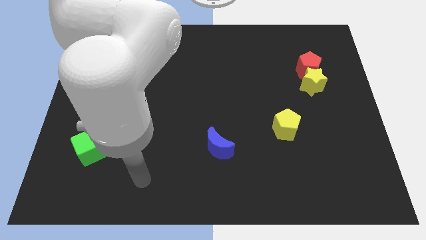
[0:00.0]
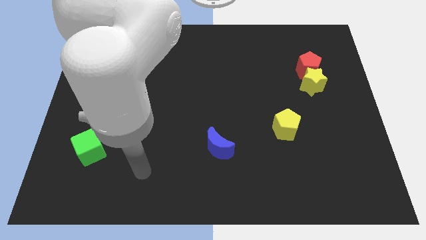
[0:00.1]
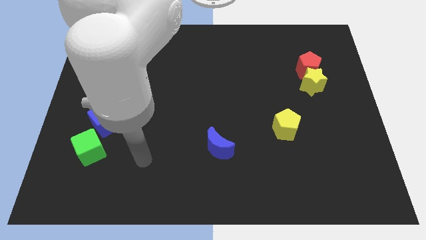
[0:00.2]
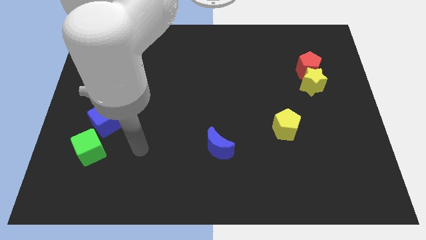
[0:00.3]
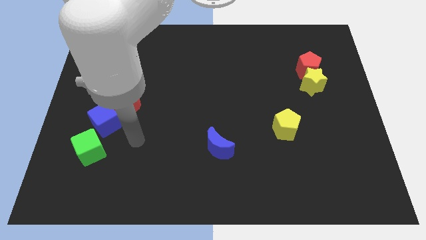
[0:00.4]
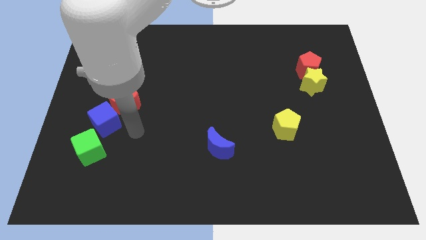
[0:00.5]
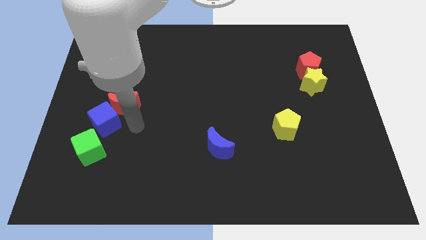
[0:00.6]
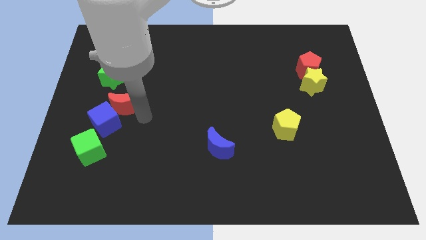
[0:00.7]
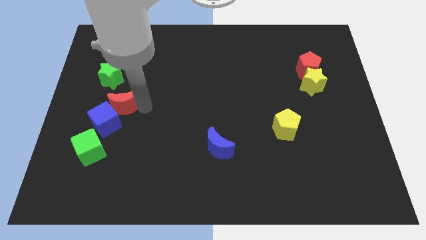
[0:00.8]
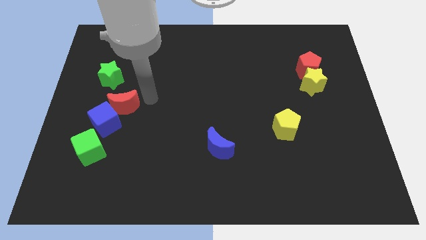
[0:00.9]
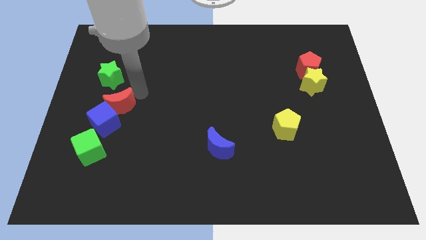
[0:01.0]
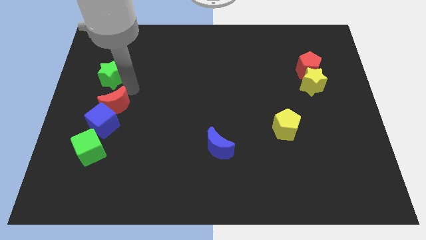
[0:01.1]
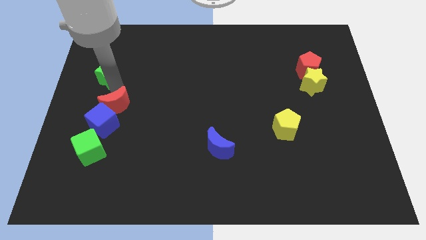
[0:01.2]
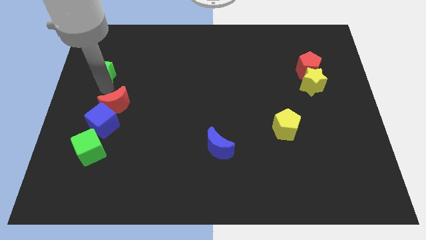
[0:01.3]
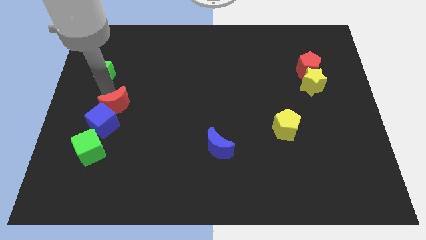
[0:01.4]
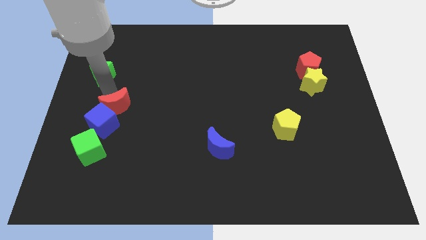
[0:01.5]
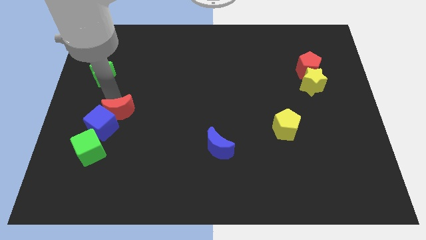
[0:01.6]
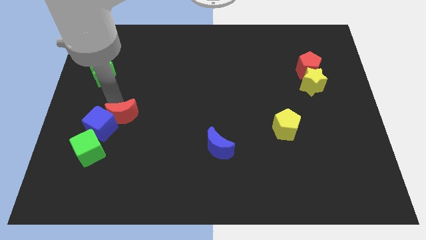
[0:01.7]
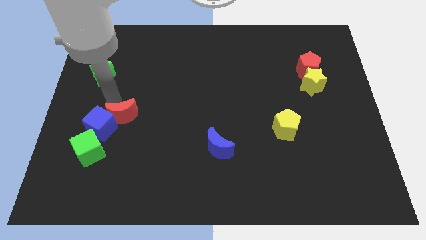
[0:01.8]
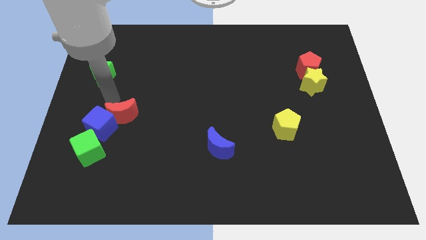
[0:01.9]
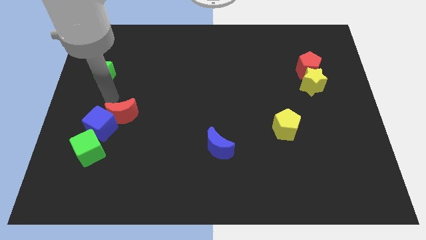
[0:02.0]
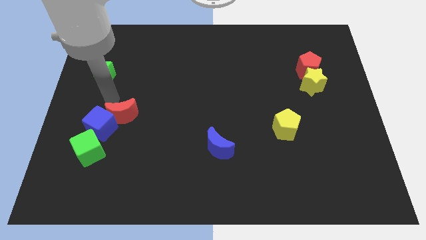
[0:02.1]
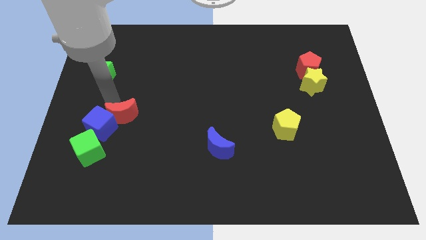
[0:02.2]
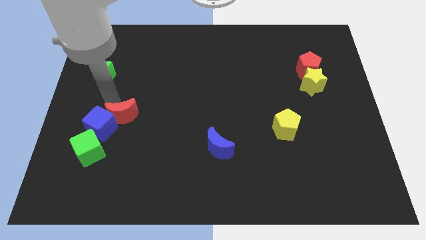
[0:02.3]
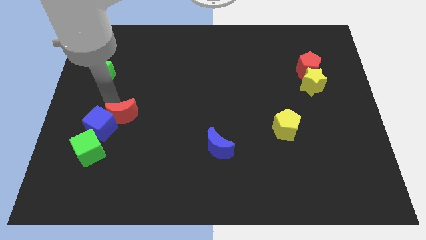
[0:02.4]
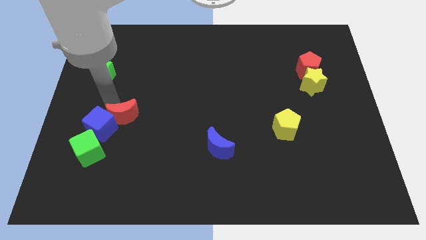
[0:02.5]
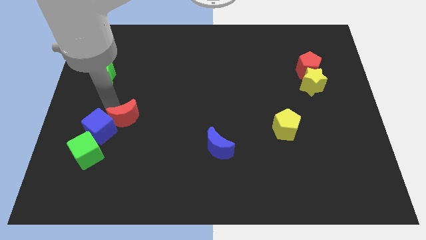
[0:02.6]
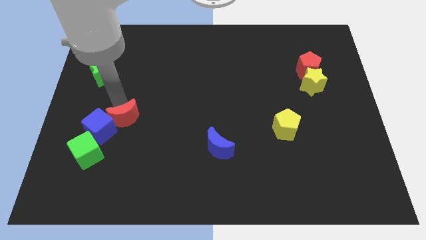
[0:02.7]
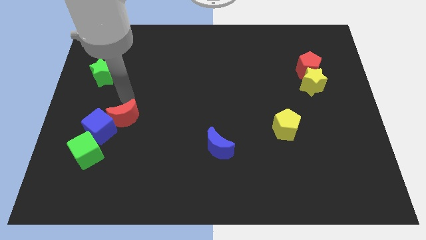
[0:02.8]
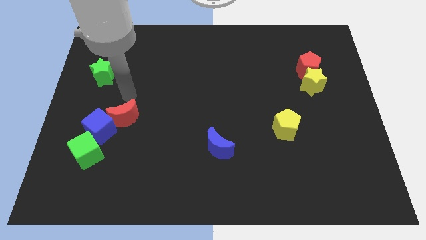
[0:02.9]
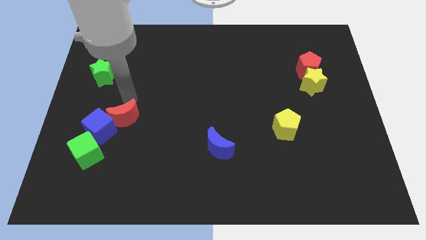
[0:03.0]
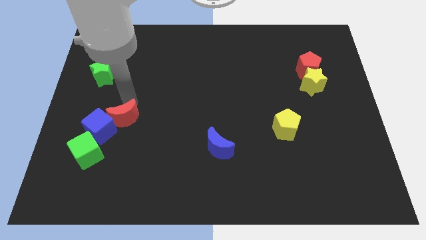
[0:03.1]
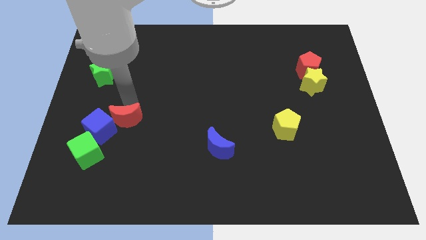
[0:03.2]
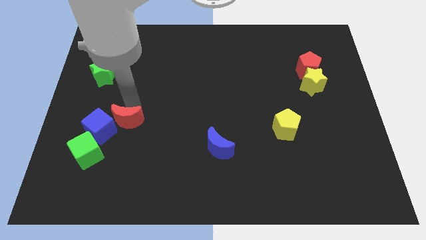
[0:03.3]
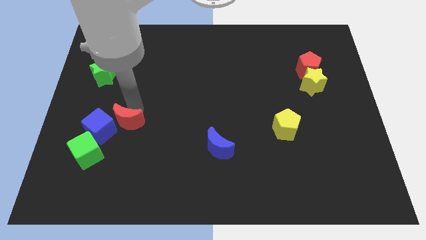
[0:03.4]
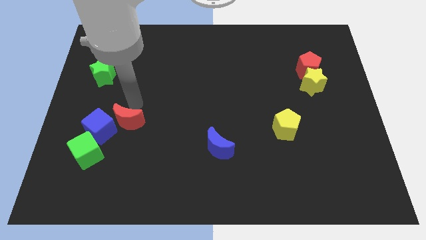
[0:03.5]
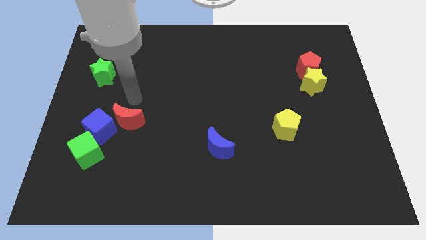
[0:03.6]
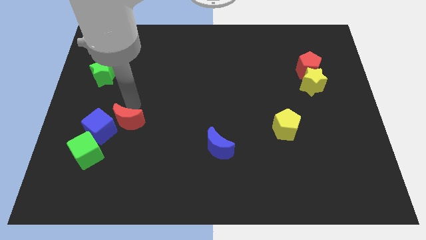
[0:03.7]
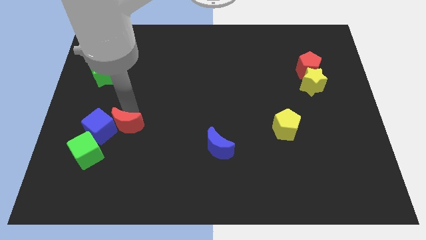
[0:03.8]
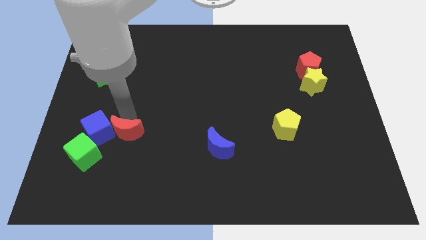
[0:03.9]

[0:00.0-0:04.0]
push the red moon downwards a little

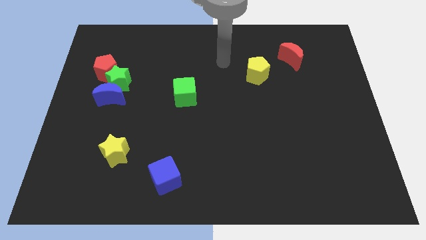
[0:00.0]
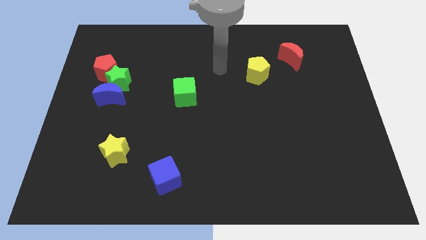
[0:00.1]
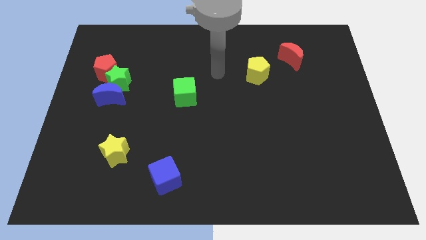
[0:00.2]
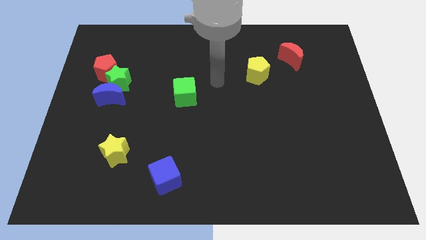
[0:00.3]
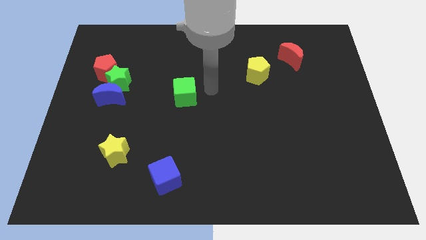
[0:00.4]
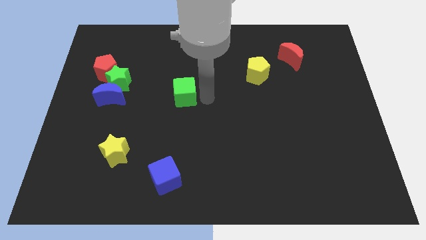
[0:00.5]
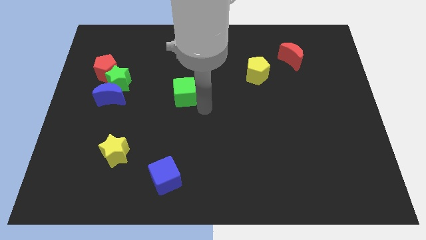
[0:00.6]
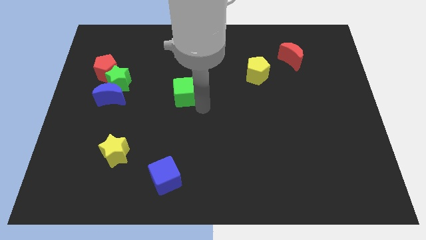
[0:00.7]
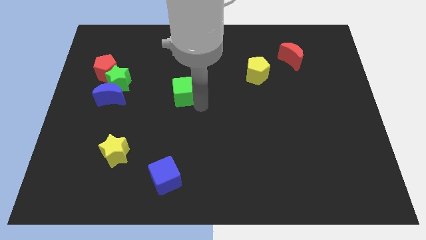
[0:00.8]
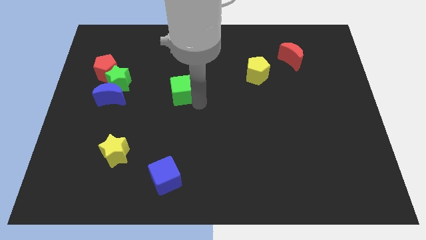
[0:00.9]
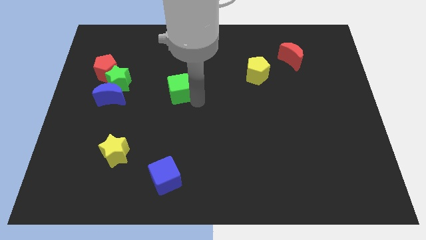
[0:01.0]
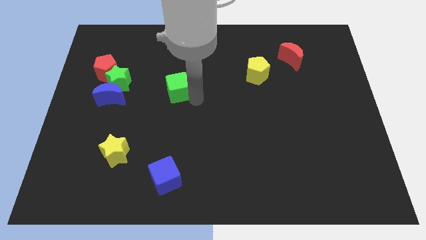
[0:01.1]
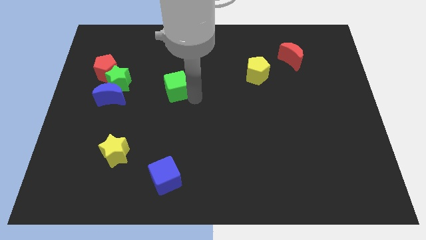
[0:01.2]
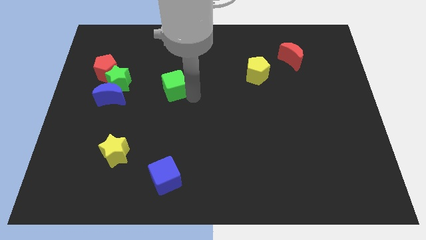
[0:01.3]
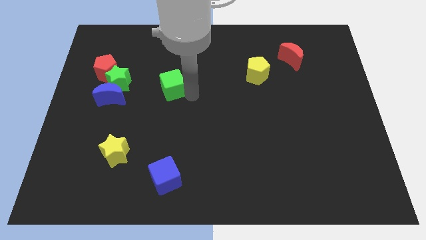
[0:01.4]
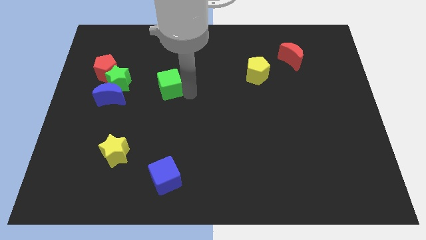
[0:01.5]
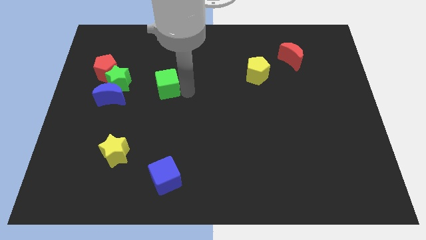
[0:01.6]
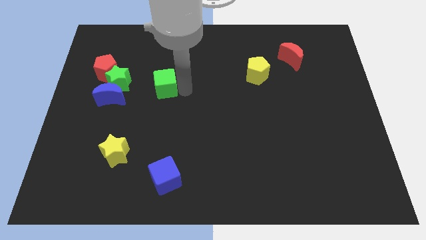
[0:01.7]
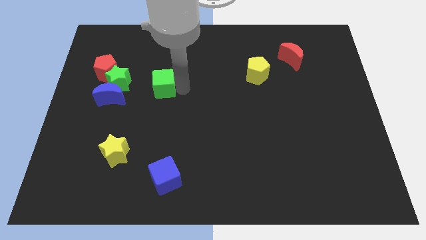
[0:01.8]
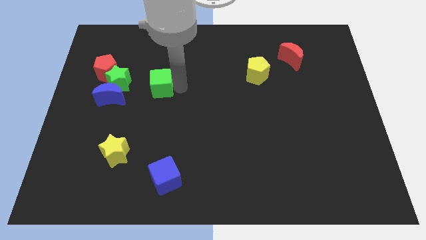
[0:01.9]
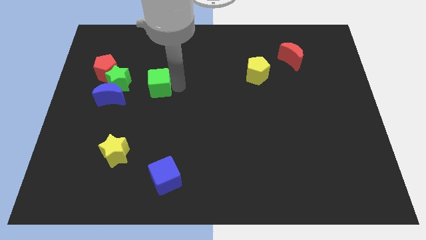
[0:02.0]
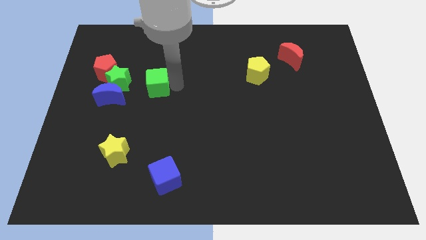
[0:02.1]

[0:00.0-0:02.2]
slide the green cube slightly up and to the left diagonally

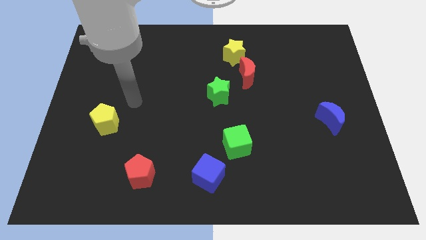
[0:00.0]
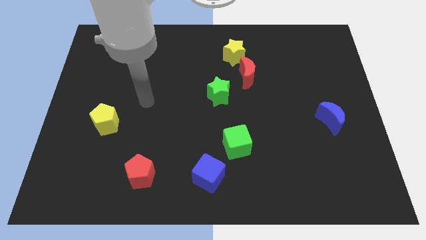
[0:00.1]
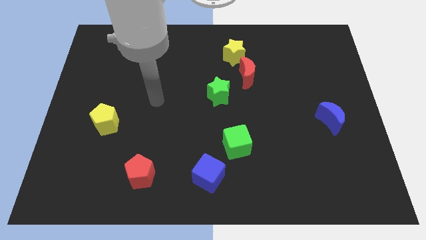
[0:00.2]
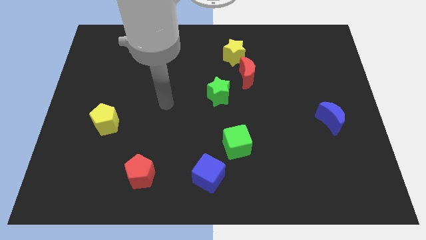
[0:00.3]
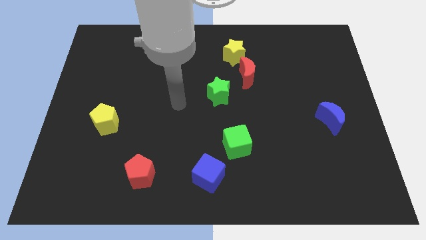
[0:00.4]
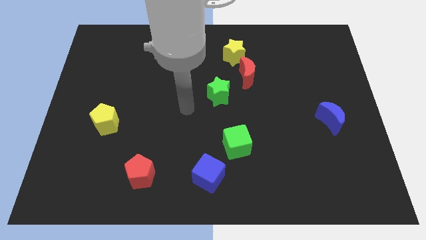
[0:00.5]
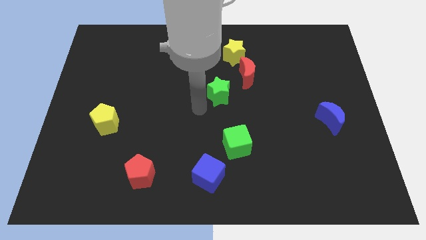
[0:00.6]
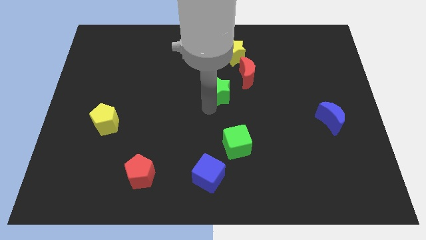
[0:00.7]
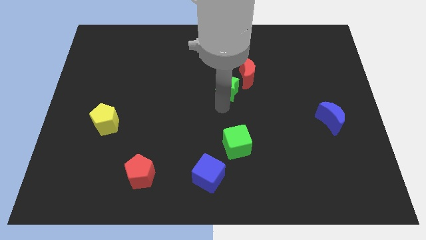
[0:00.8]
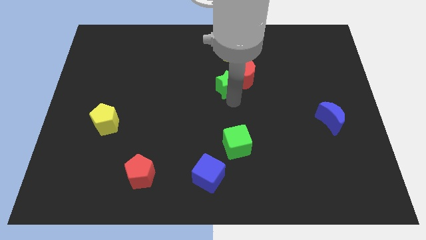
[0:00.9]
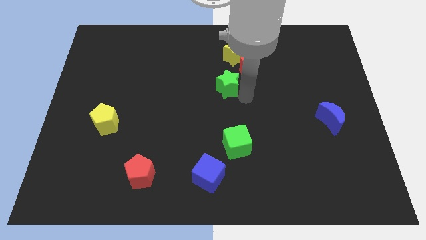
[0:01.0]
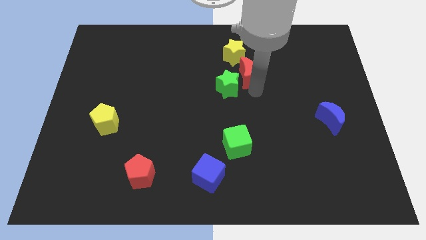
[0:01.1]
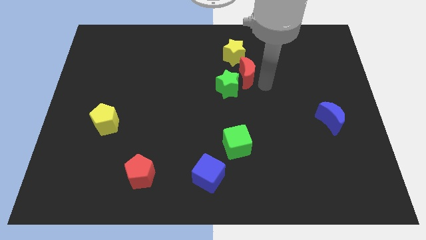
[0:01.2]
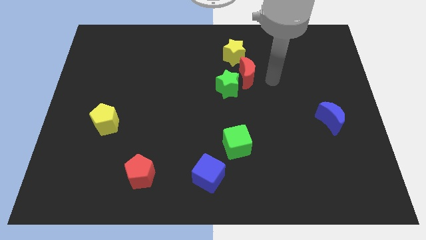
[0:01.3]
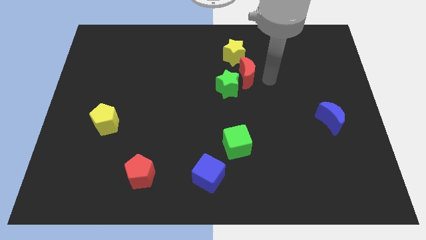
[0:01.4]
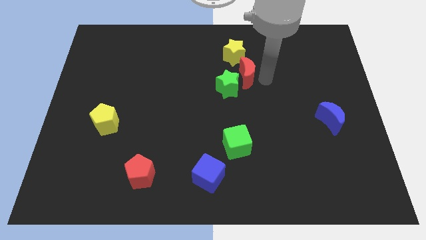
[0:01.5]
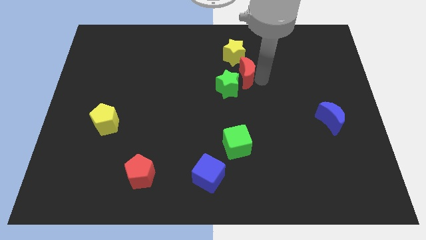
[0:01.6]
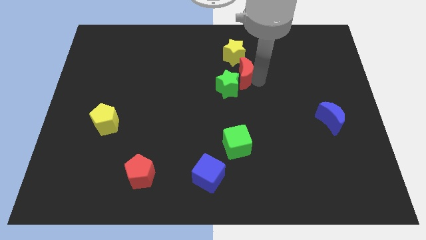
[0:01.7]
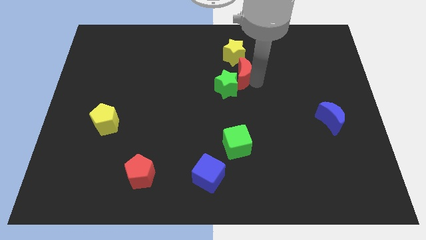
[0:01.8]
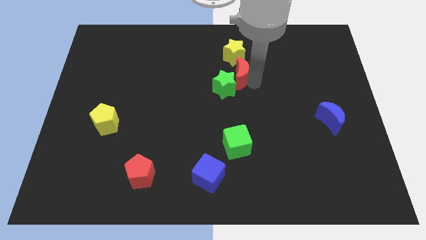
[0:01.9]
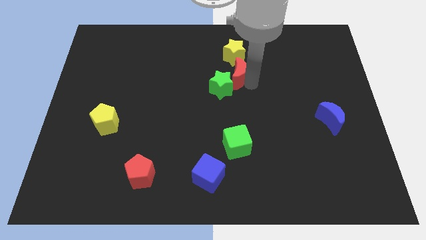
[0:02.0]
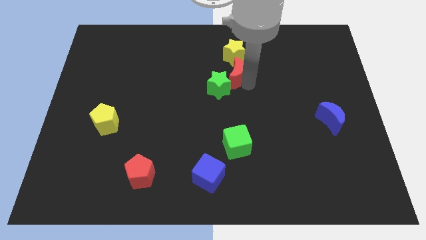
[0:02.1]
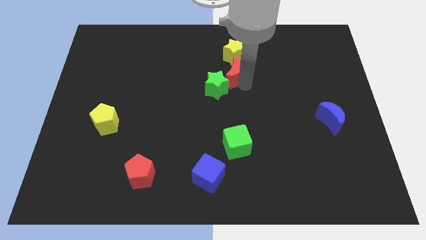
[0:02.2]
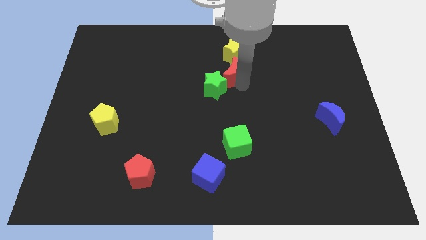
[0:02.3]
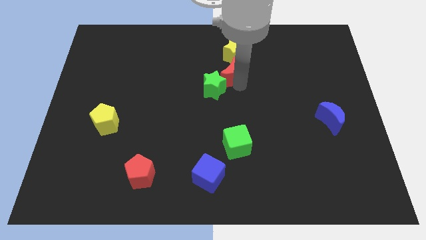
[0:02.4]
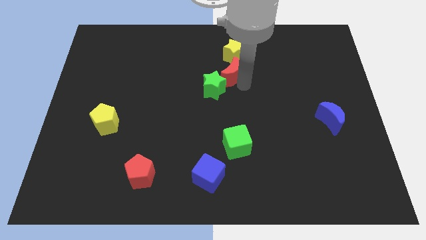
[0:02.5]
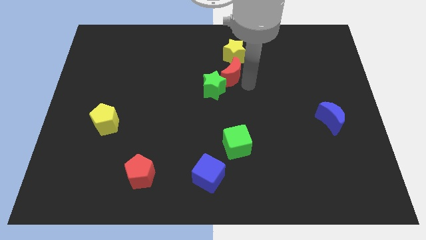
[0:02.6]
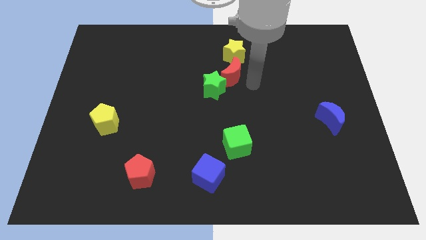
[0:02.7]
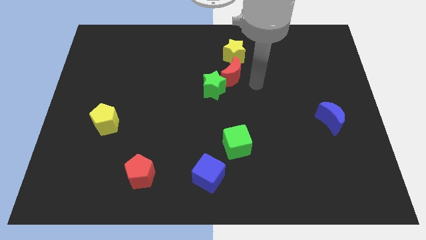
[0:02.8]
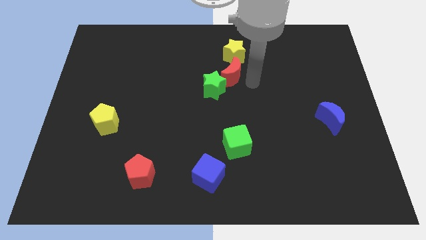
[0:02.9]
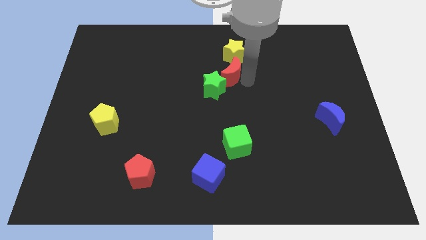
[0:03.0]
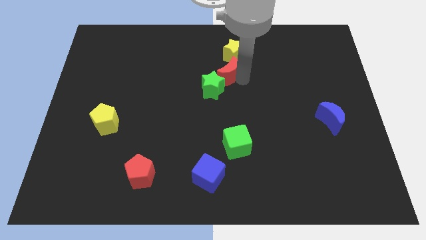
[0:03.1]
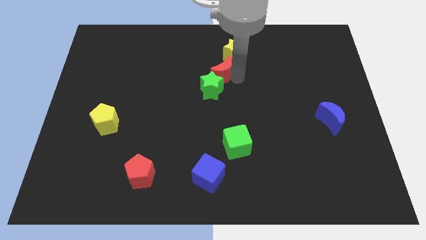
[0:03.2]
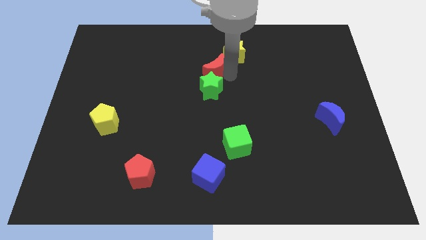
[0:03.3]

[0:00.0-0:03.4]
slide the red moon to the left a little bit
